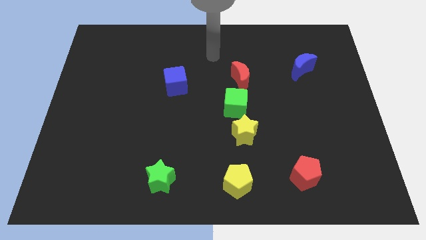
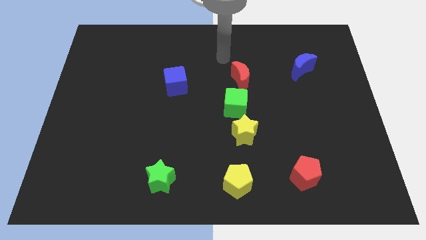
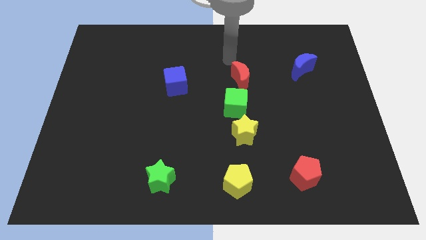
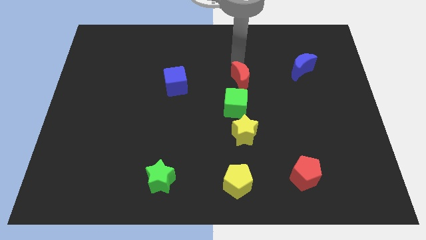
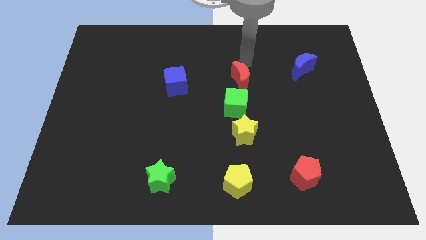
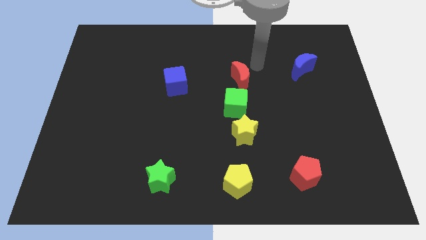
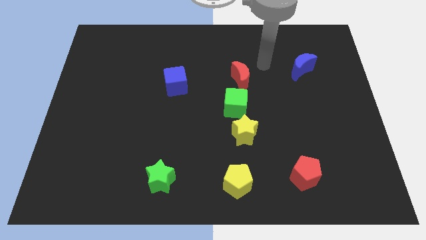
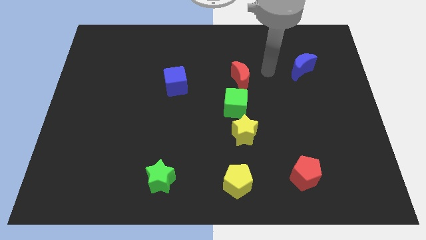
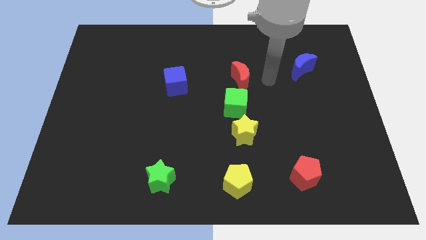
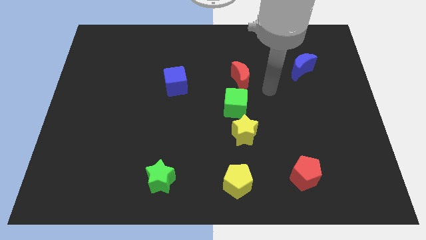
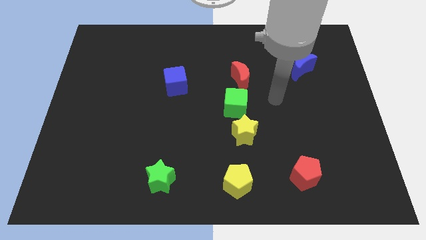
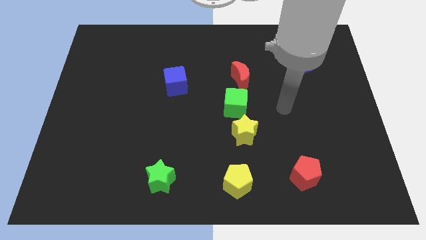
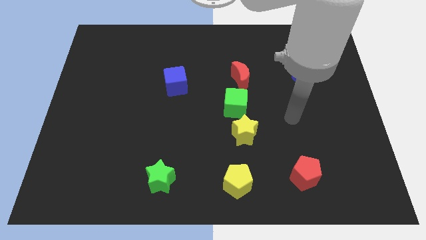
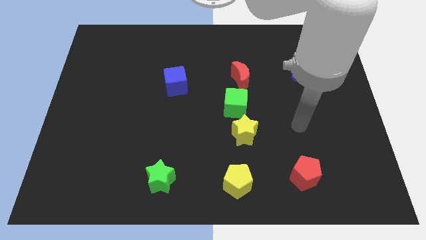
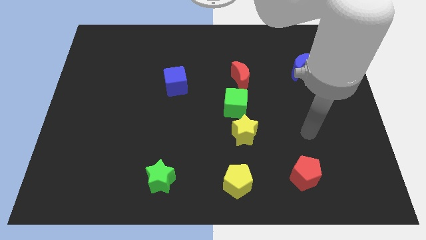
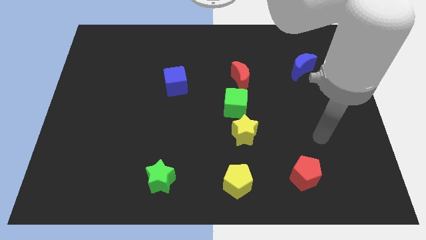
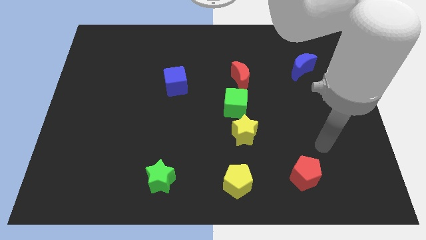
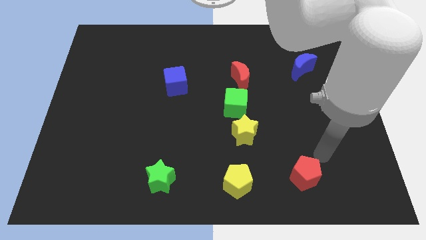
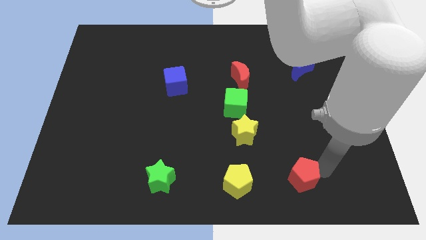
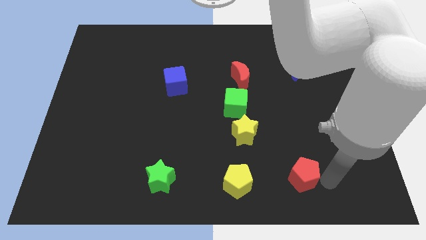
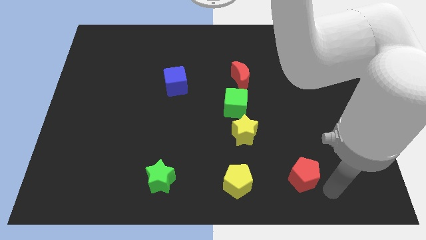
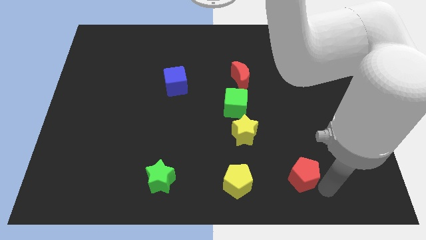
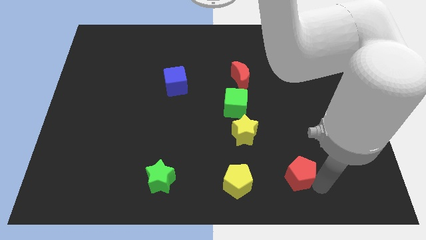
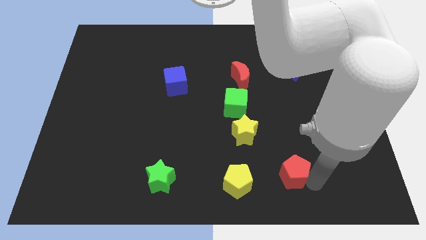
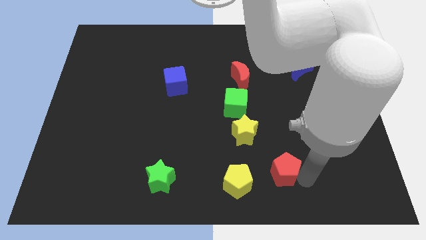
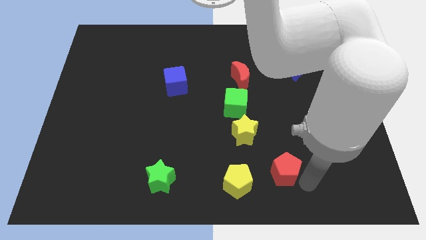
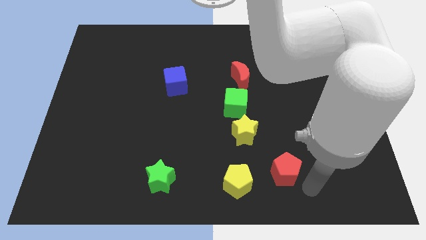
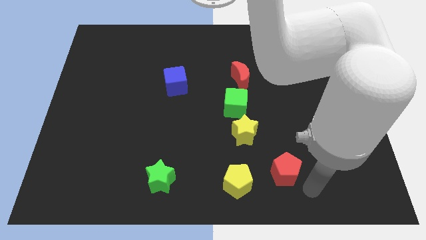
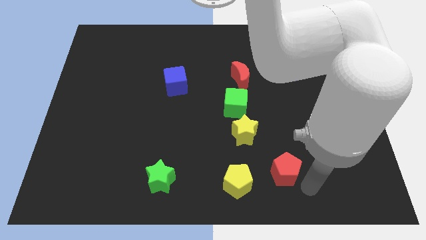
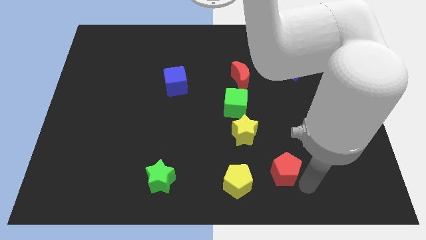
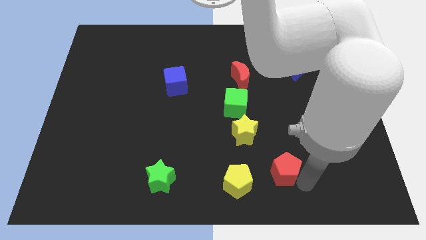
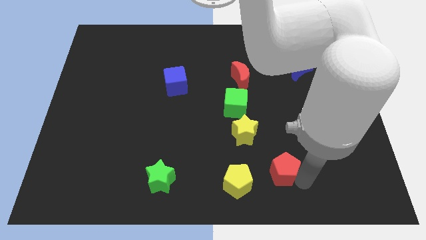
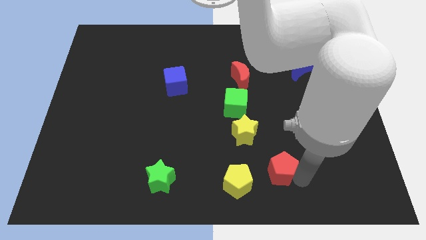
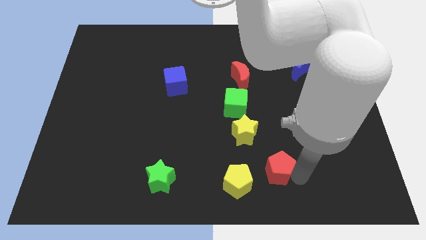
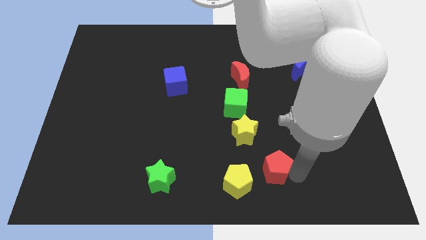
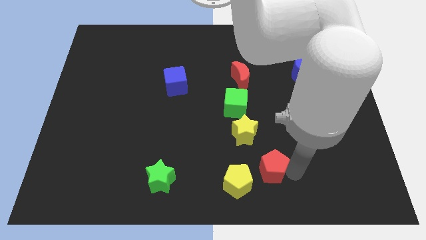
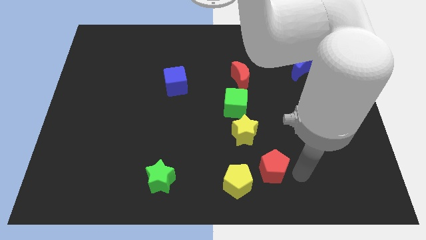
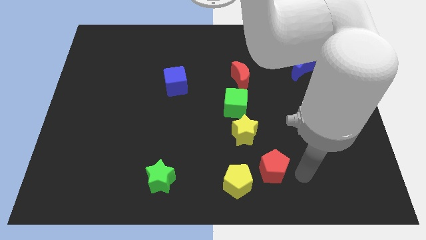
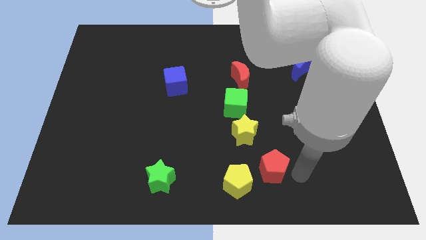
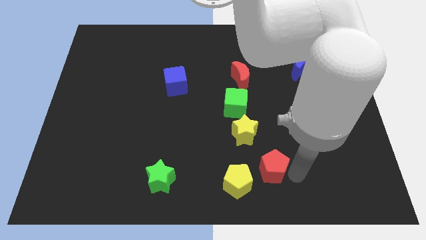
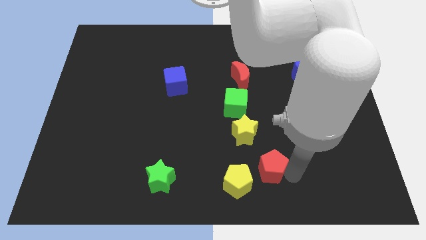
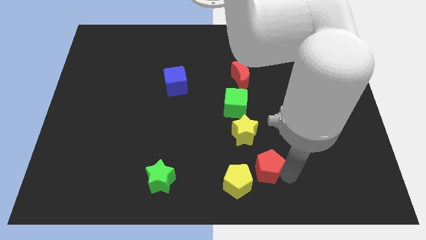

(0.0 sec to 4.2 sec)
slide the red pentagon a little left

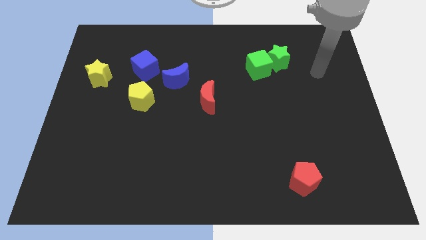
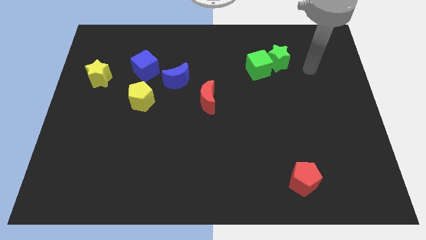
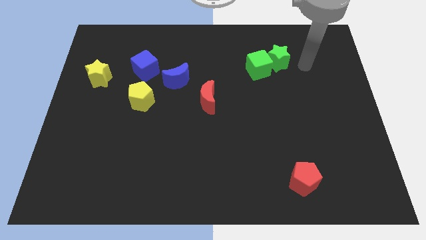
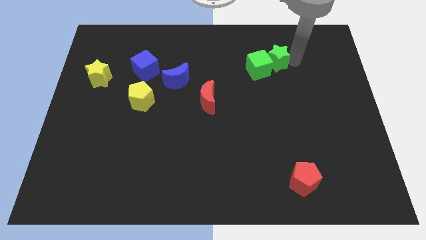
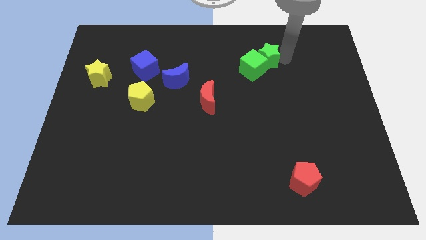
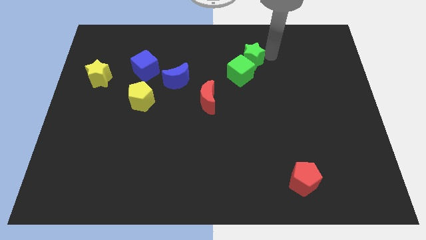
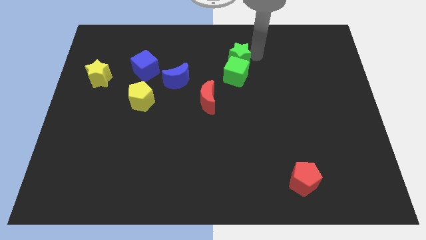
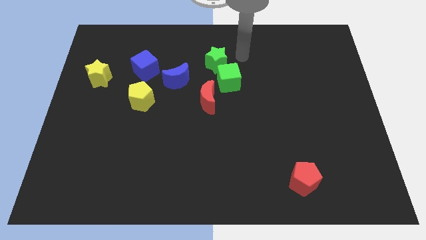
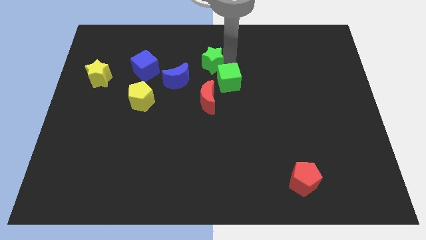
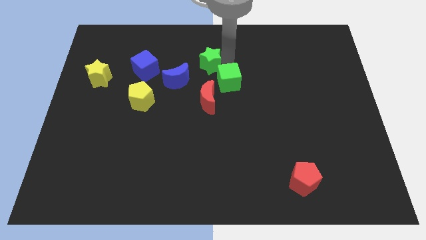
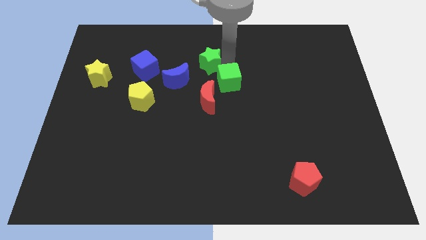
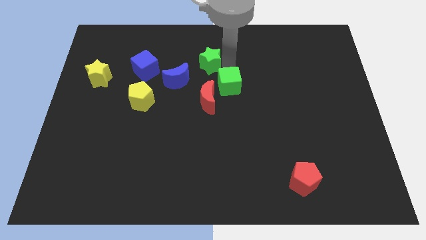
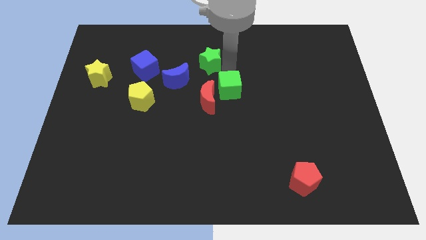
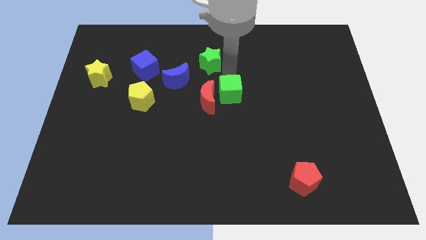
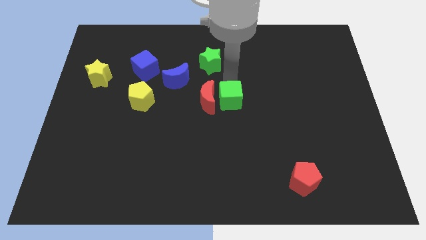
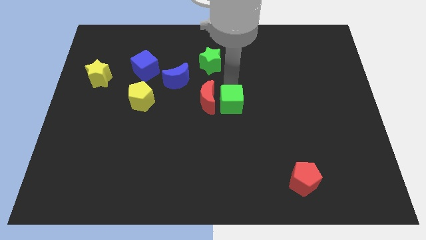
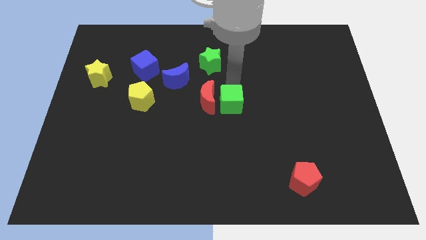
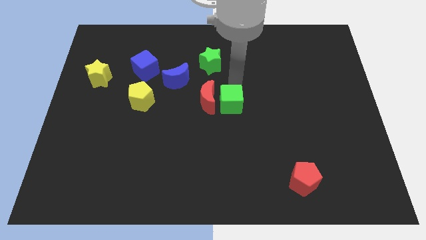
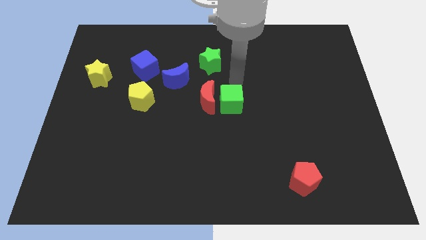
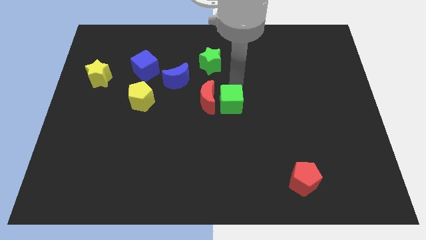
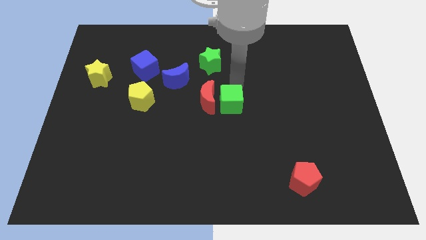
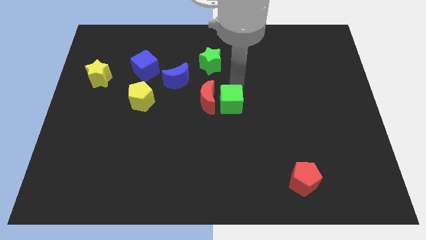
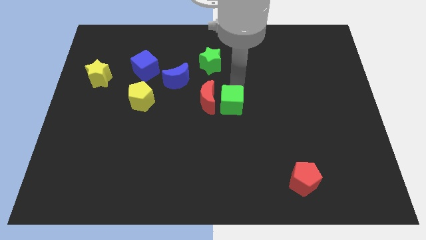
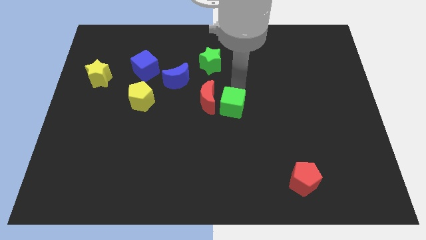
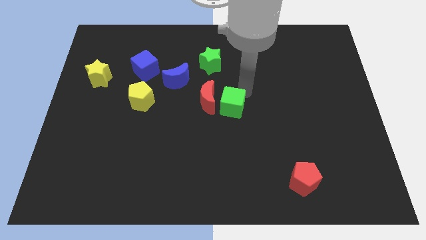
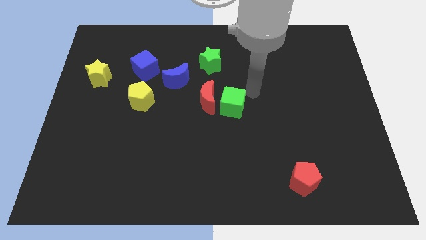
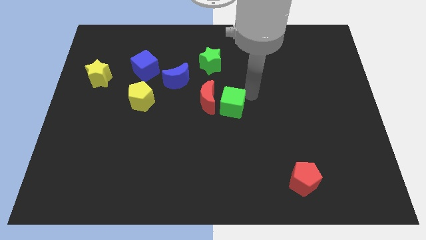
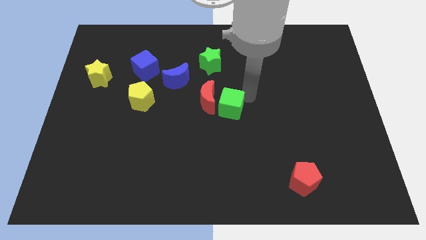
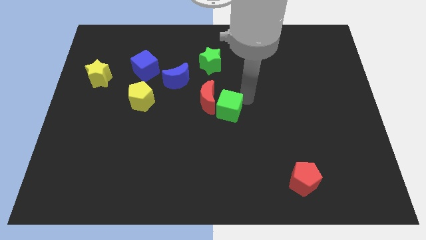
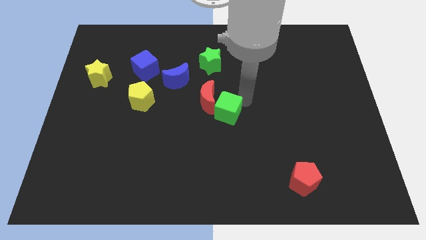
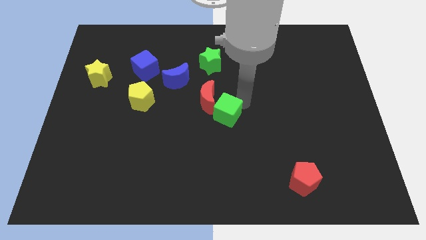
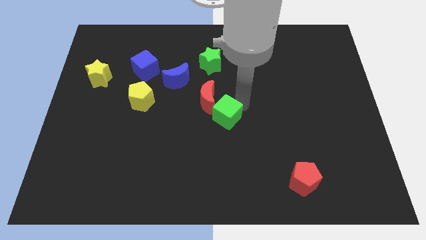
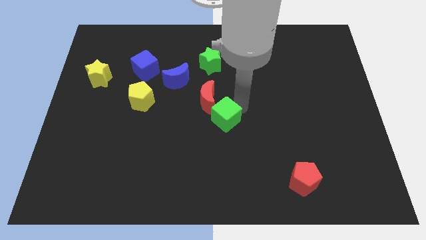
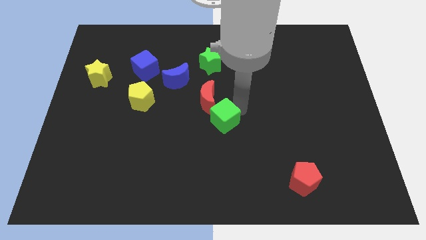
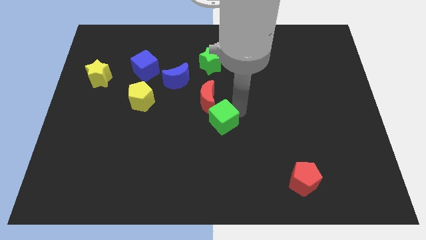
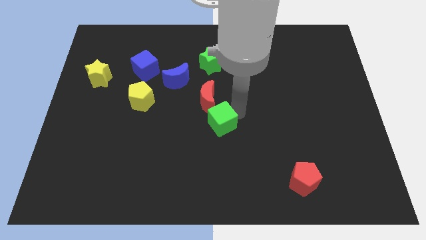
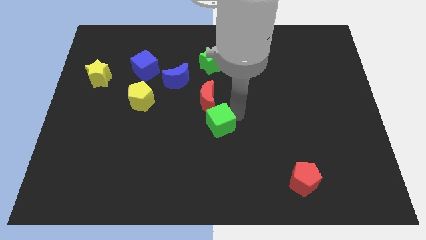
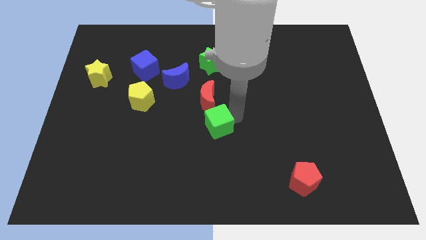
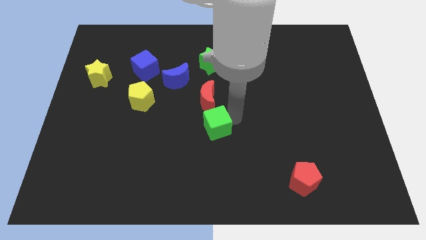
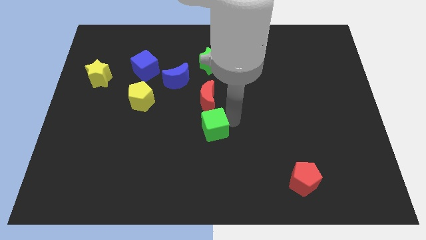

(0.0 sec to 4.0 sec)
move the green cube down and then to the left
